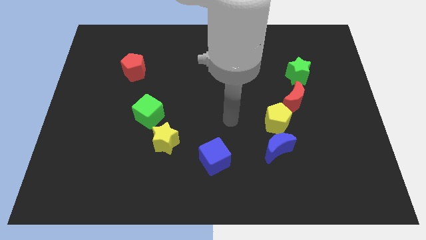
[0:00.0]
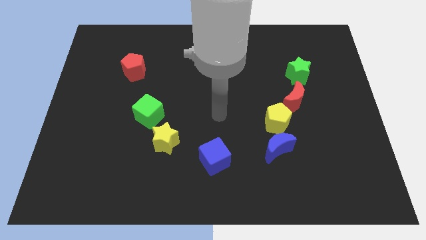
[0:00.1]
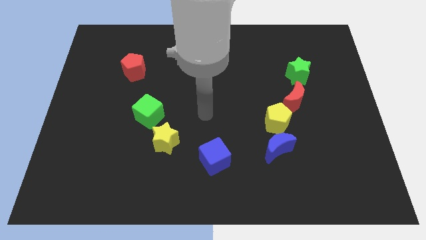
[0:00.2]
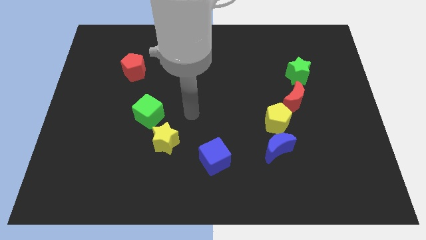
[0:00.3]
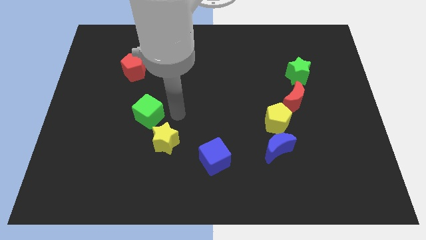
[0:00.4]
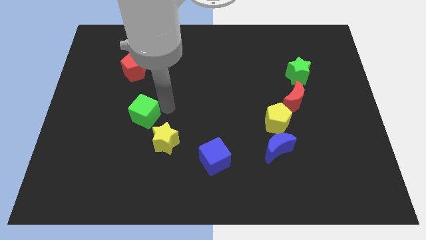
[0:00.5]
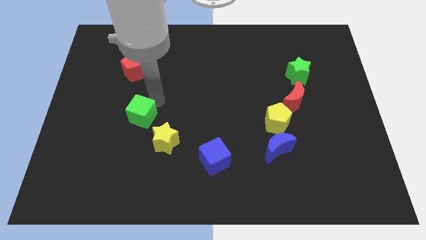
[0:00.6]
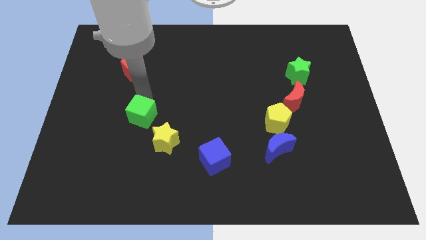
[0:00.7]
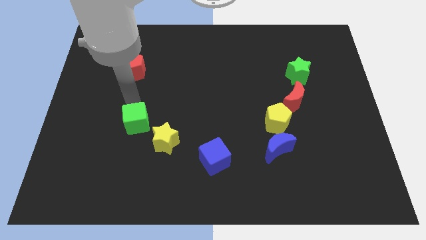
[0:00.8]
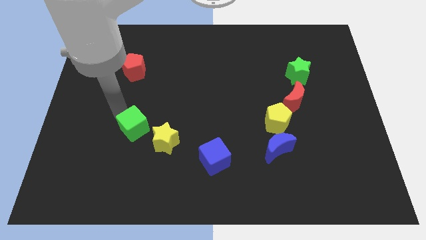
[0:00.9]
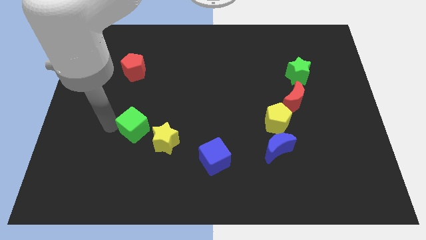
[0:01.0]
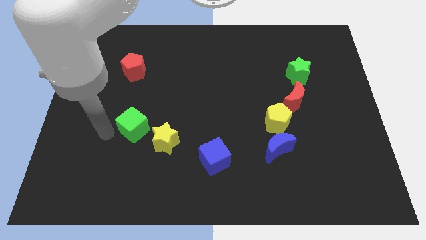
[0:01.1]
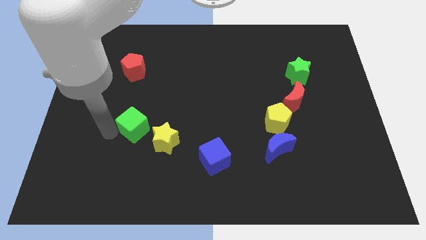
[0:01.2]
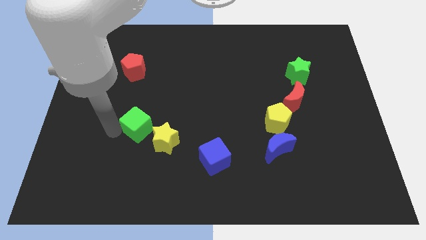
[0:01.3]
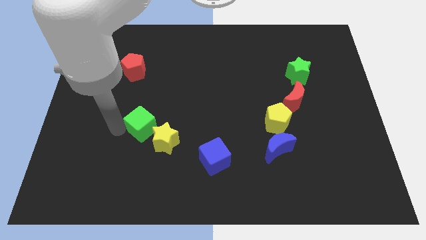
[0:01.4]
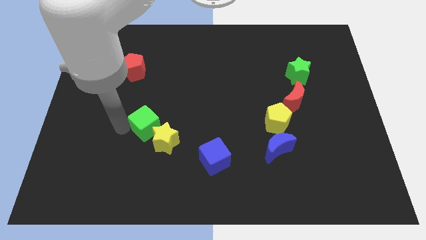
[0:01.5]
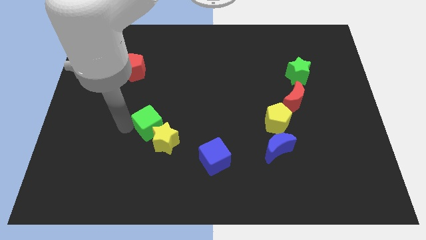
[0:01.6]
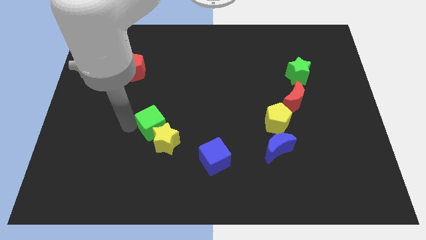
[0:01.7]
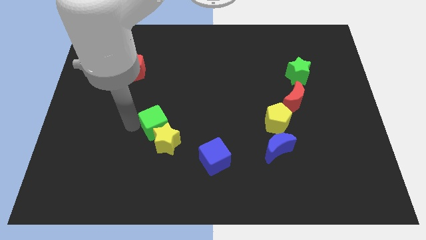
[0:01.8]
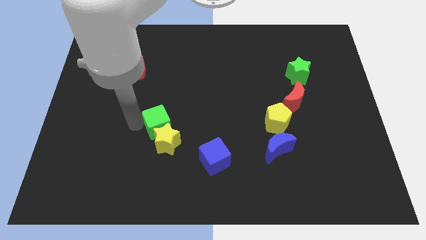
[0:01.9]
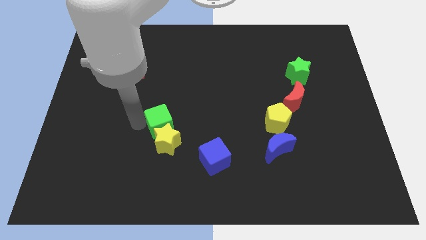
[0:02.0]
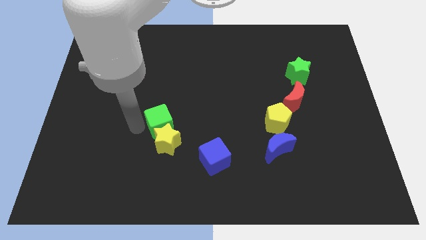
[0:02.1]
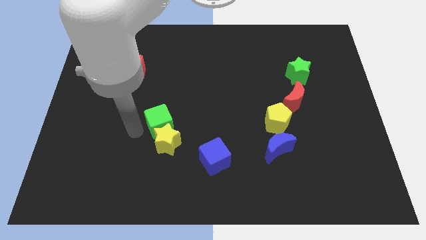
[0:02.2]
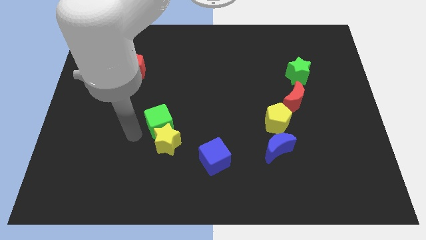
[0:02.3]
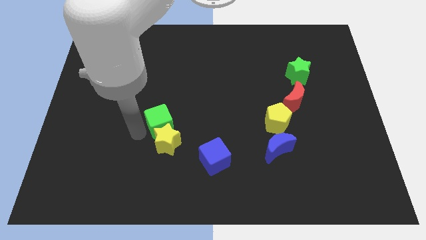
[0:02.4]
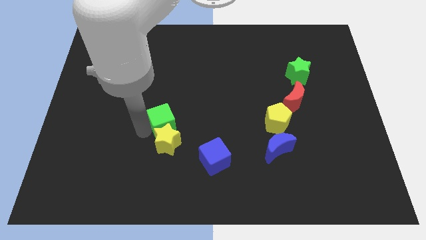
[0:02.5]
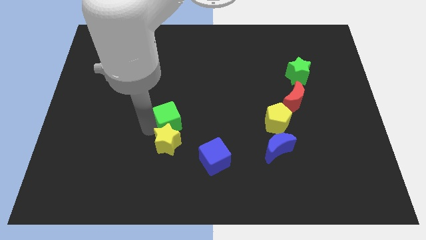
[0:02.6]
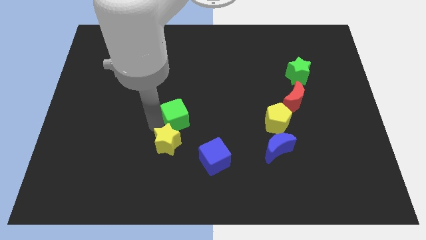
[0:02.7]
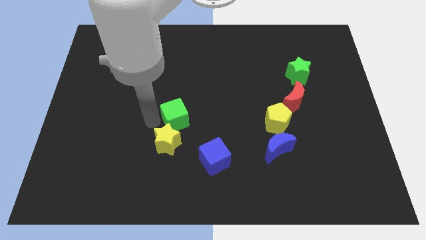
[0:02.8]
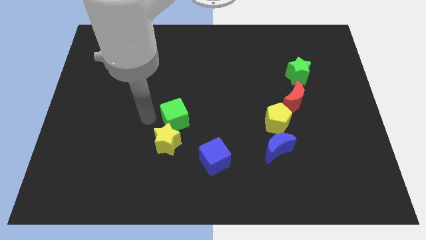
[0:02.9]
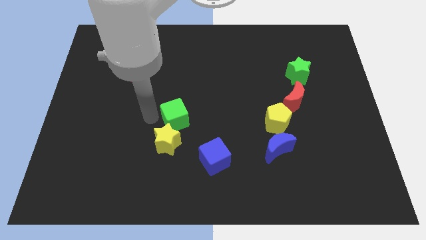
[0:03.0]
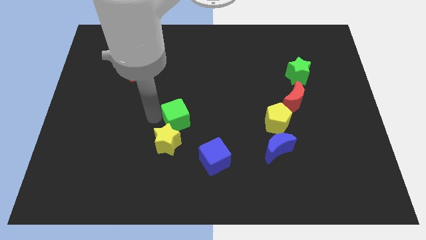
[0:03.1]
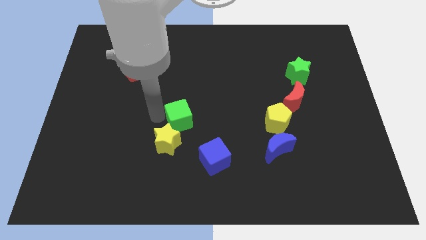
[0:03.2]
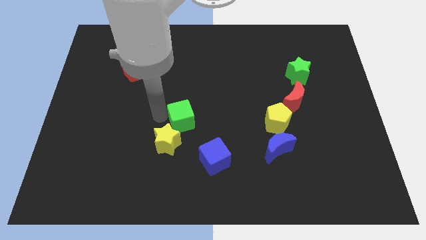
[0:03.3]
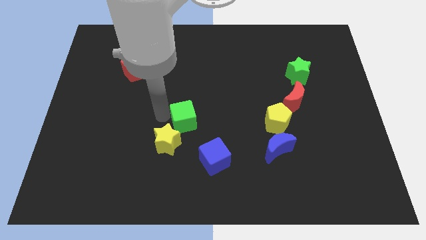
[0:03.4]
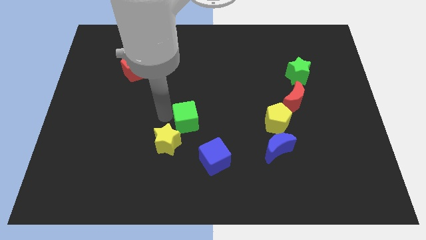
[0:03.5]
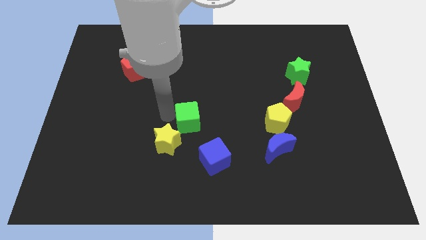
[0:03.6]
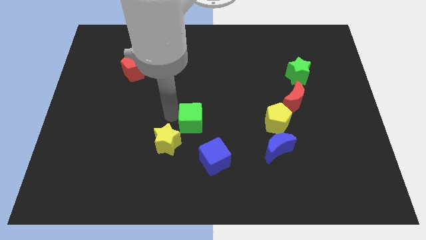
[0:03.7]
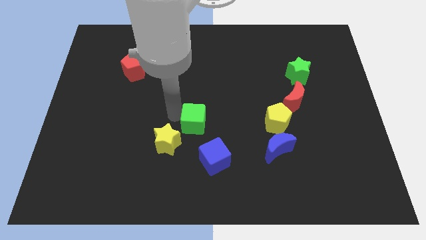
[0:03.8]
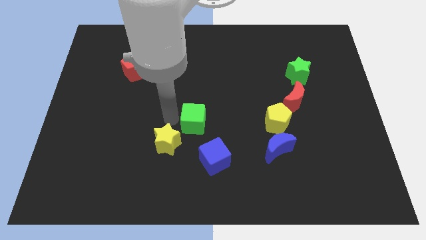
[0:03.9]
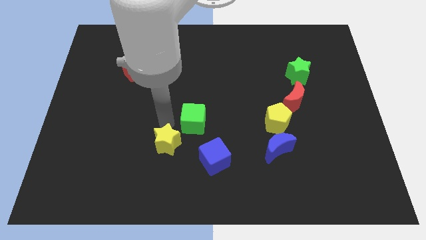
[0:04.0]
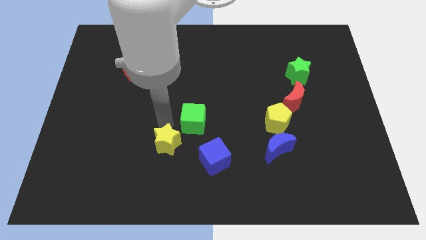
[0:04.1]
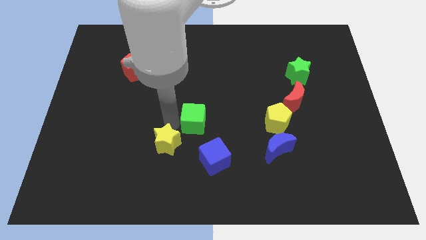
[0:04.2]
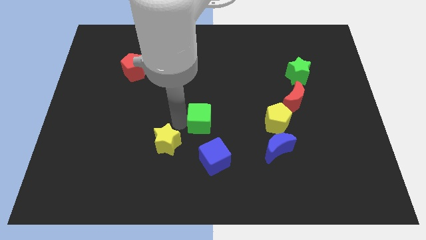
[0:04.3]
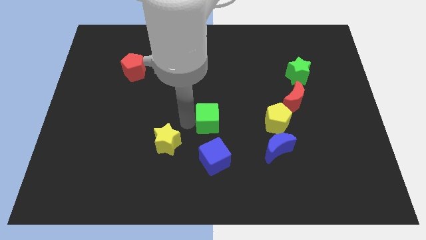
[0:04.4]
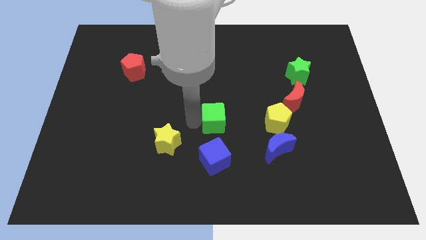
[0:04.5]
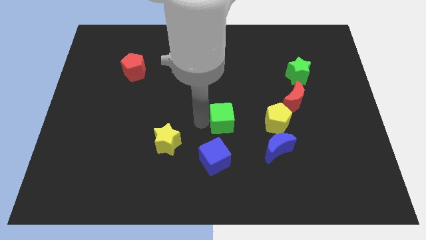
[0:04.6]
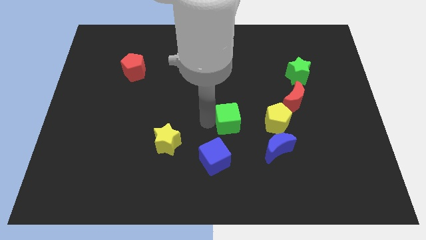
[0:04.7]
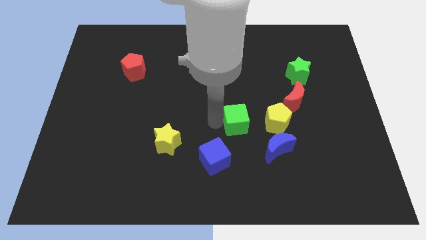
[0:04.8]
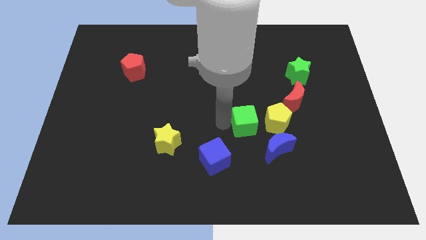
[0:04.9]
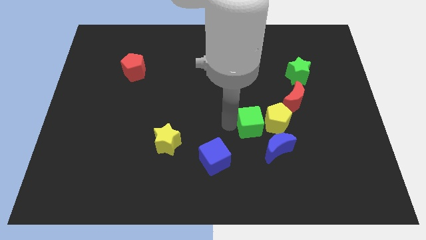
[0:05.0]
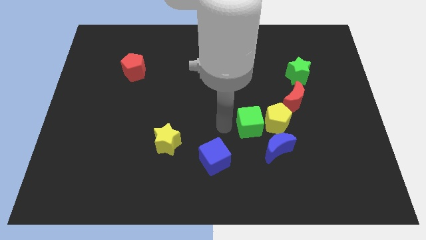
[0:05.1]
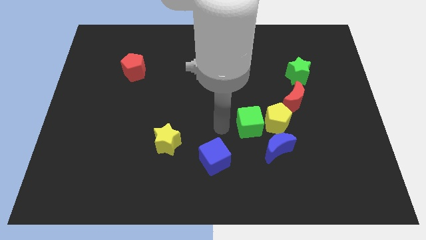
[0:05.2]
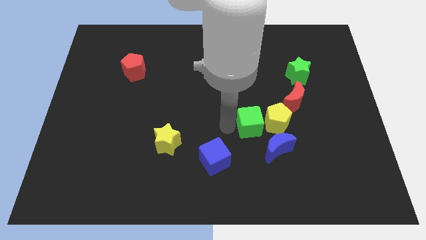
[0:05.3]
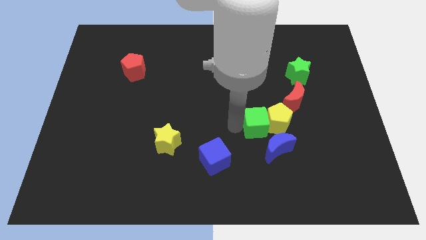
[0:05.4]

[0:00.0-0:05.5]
move the green cube to the yellow pentagon

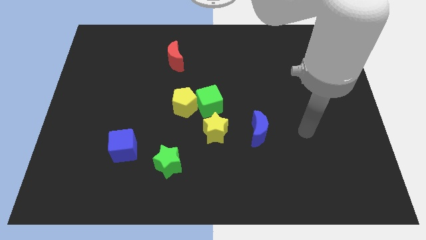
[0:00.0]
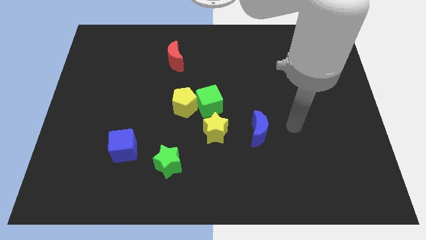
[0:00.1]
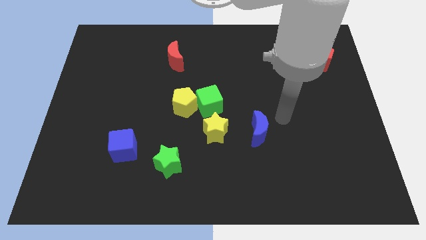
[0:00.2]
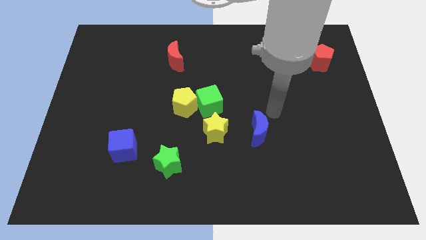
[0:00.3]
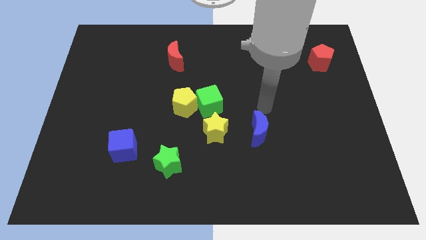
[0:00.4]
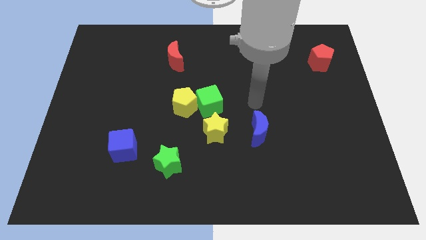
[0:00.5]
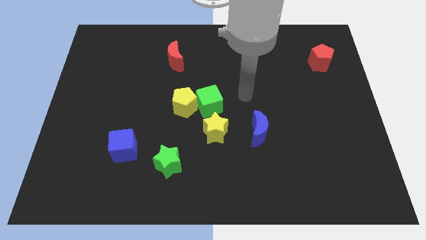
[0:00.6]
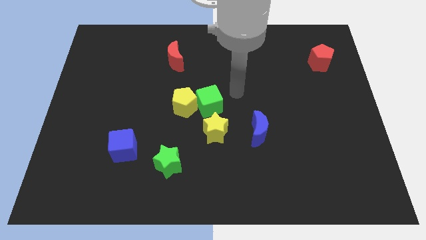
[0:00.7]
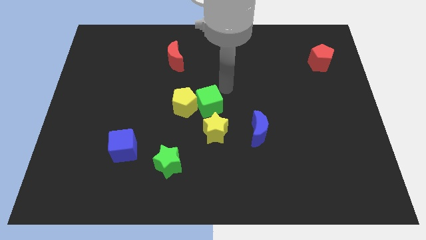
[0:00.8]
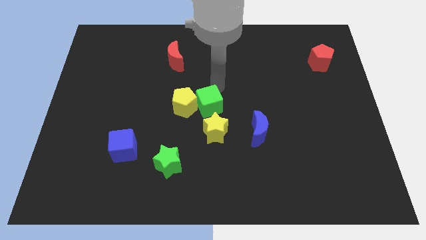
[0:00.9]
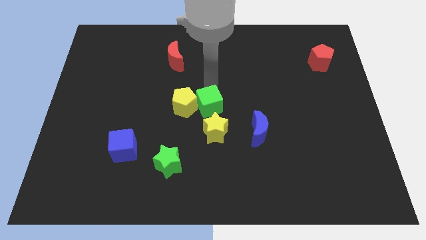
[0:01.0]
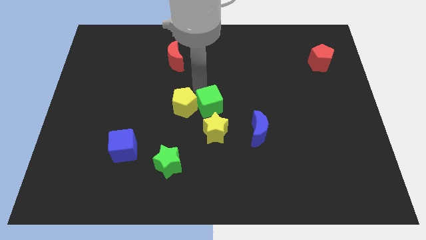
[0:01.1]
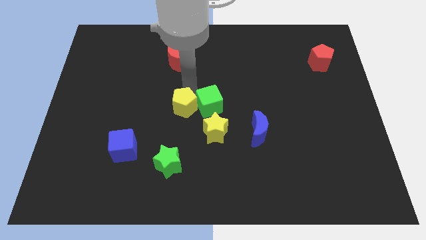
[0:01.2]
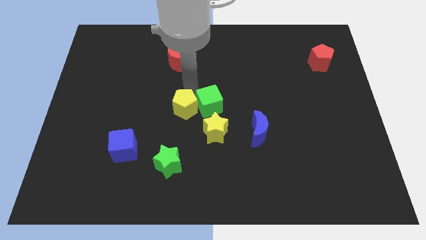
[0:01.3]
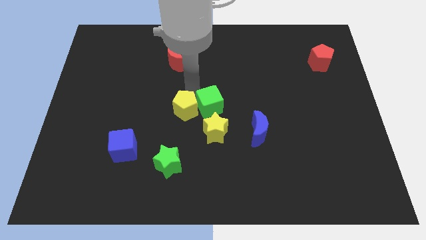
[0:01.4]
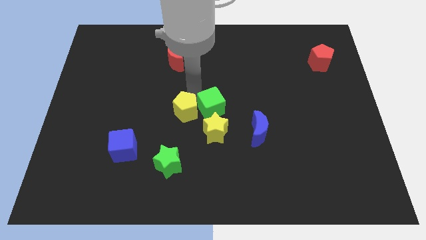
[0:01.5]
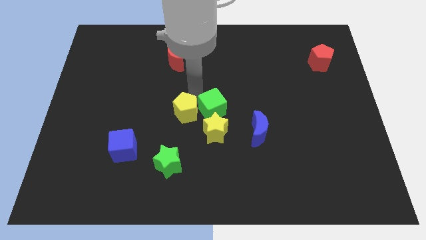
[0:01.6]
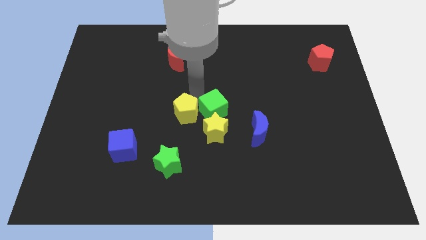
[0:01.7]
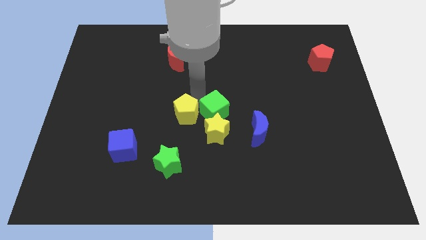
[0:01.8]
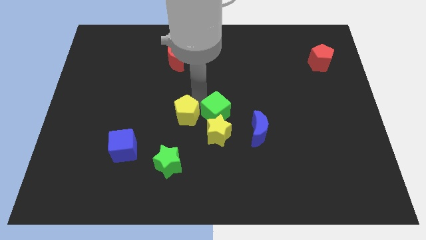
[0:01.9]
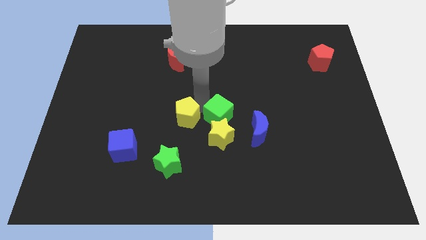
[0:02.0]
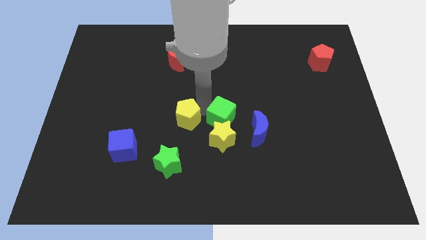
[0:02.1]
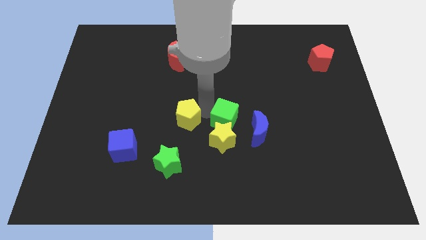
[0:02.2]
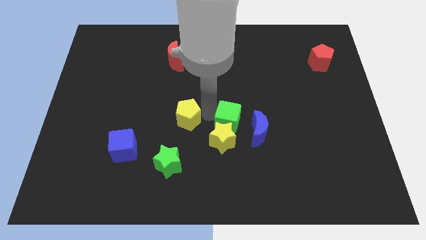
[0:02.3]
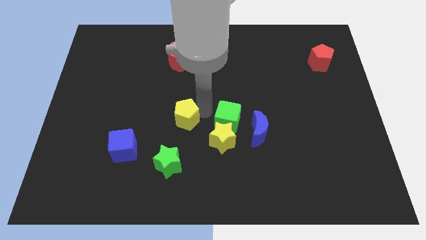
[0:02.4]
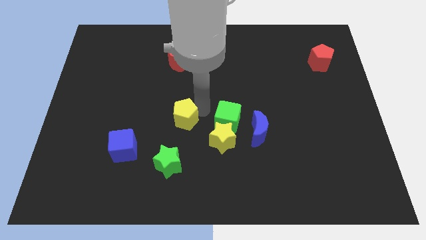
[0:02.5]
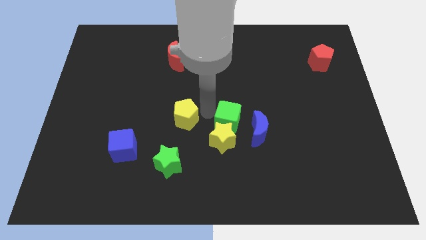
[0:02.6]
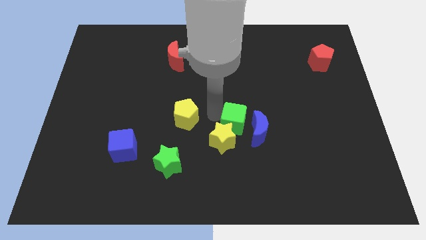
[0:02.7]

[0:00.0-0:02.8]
slide the green cube to the blue moon
